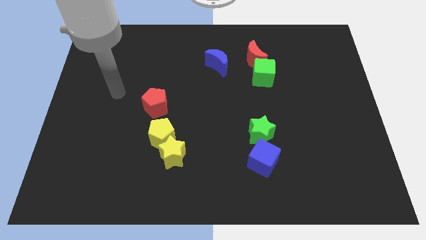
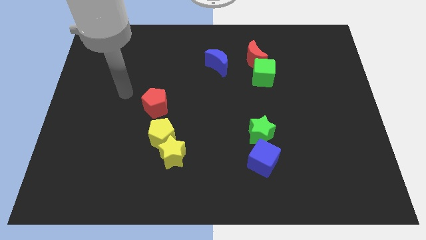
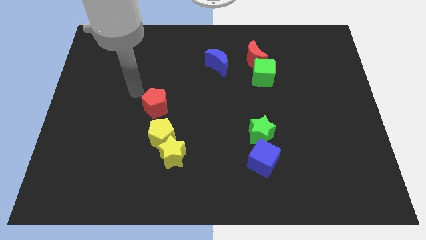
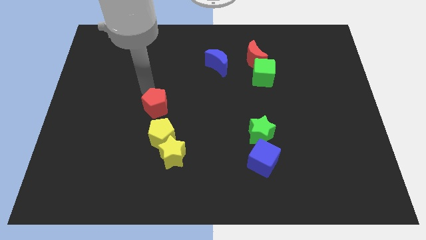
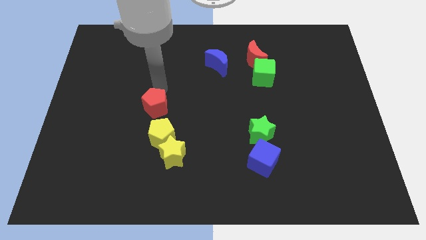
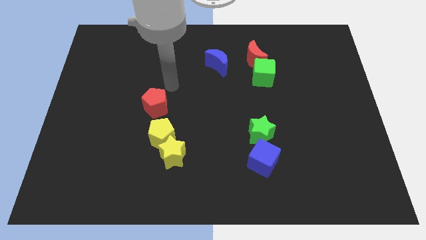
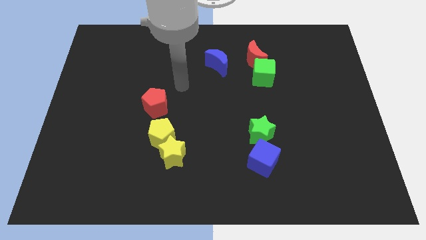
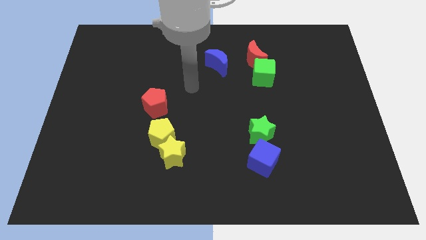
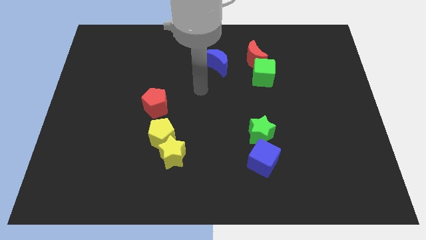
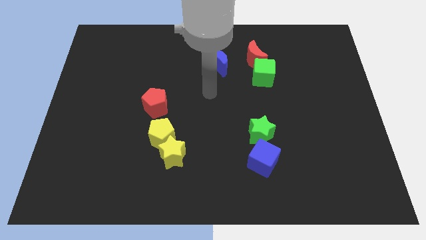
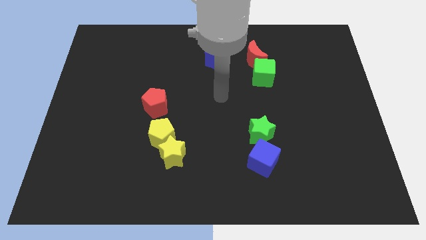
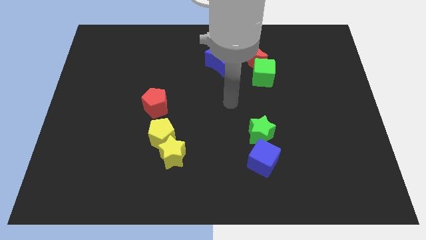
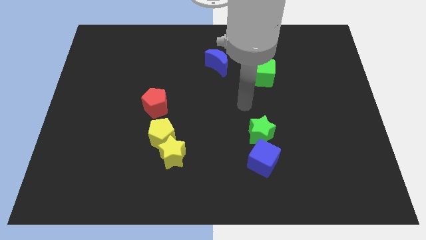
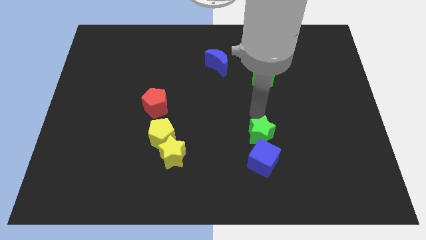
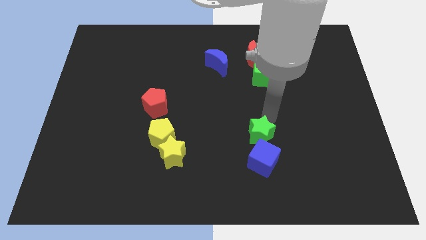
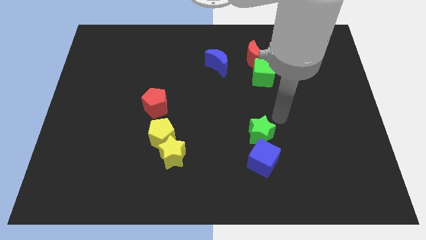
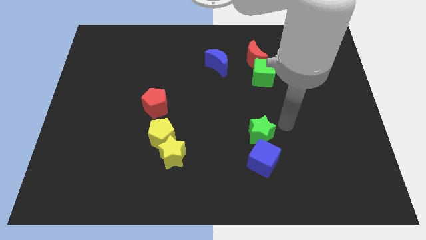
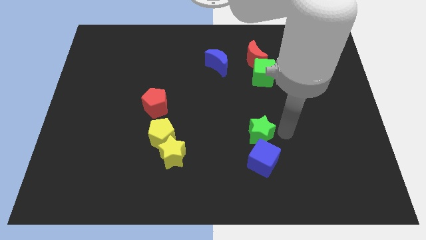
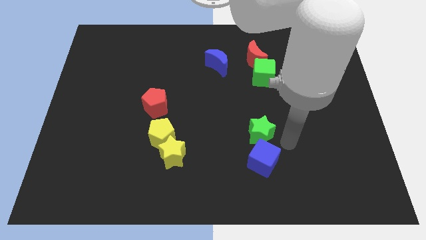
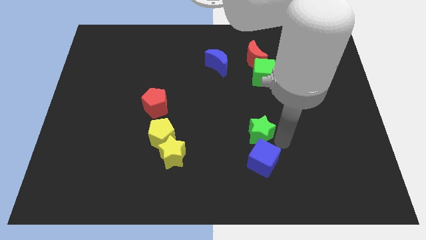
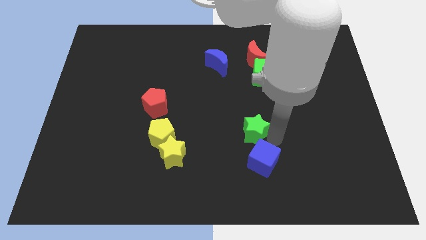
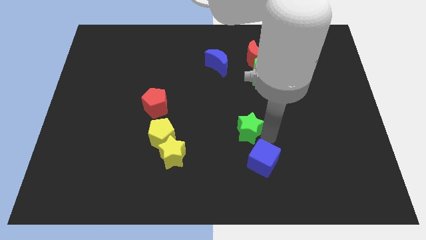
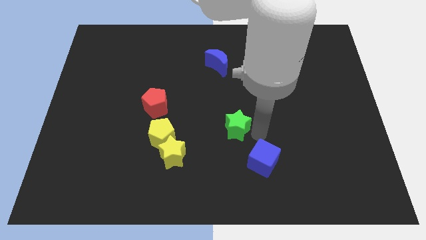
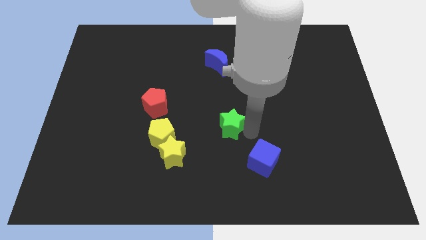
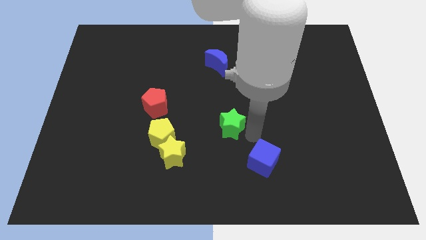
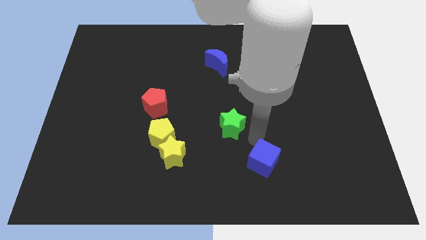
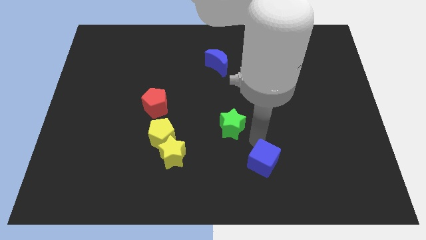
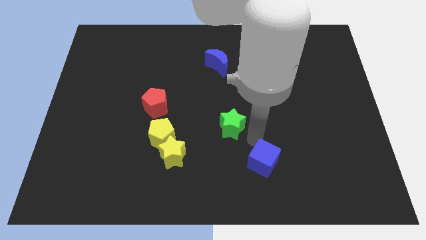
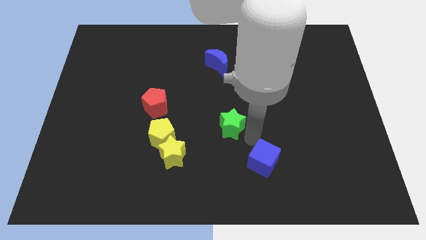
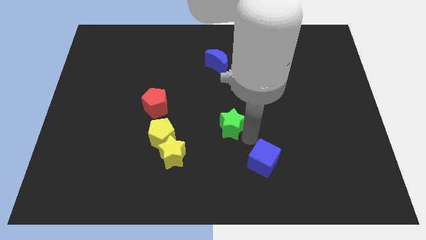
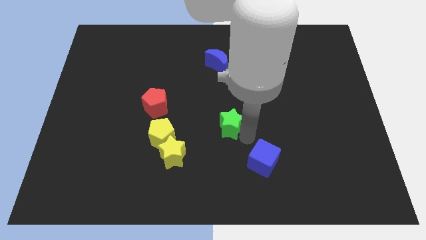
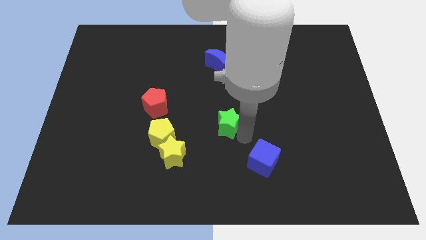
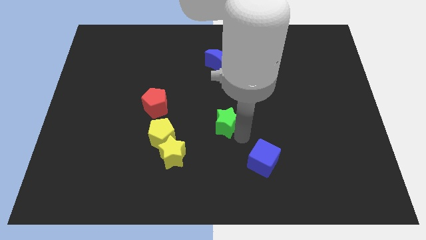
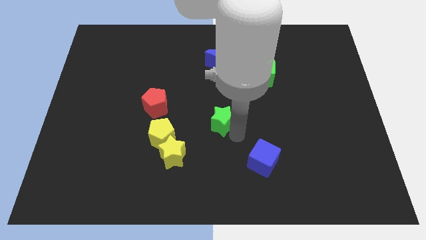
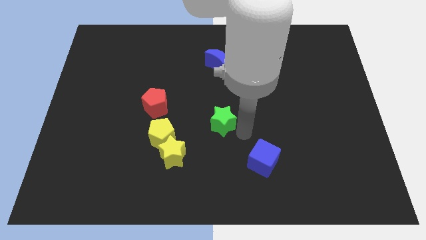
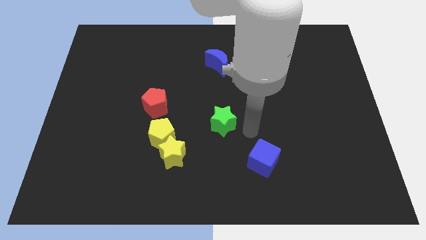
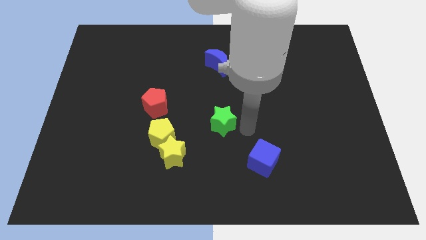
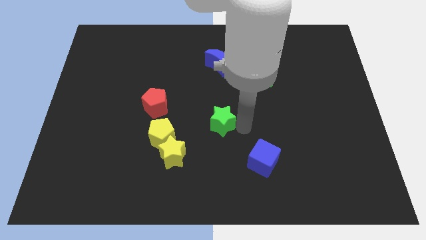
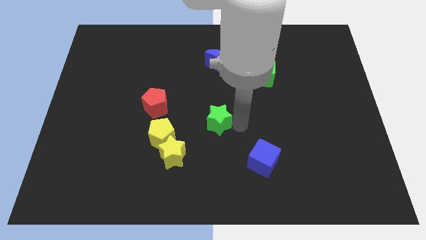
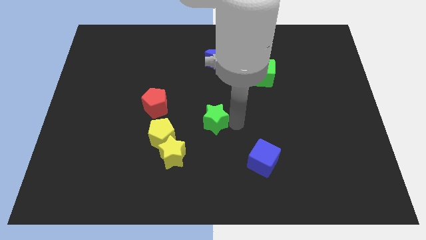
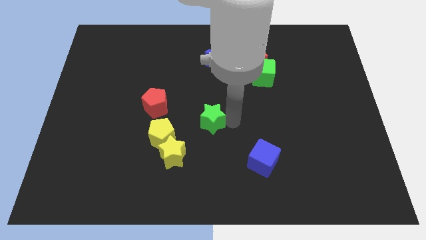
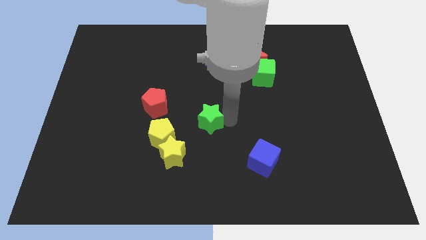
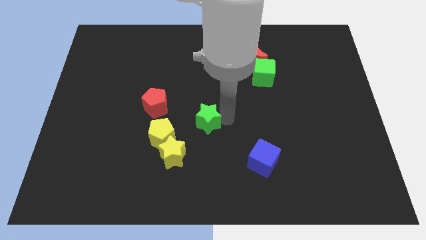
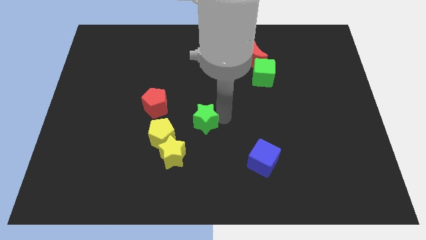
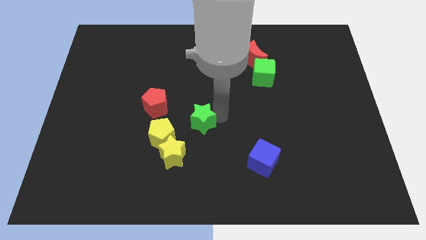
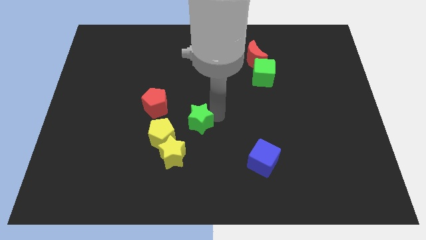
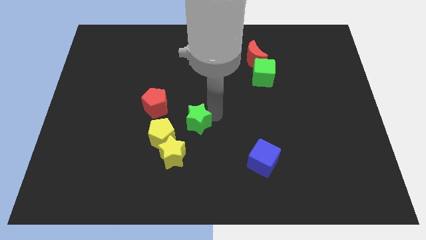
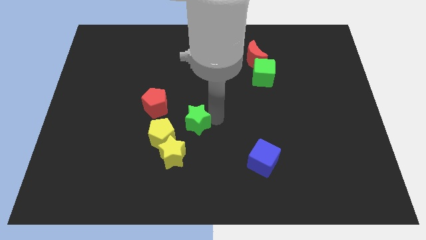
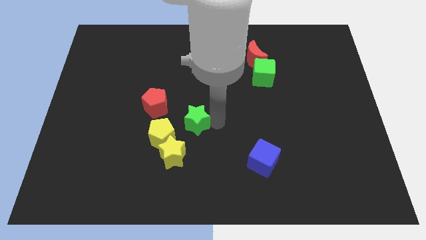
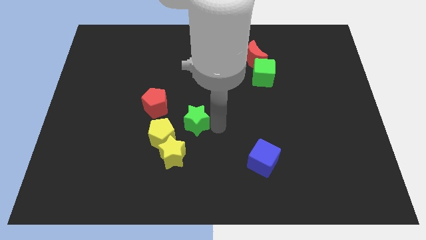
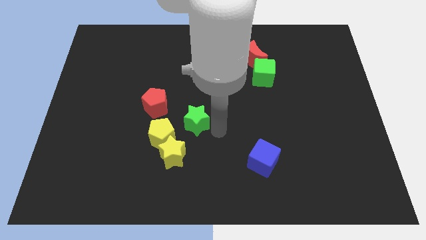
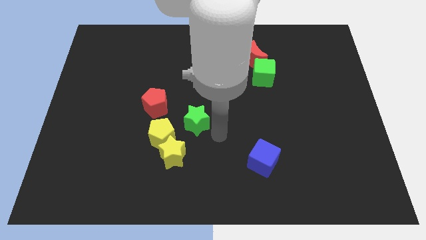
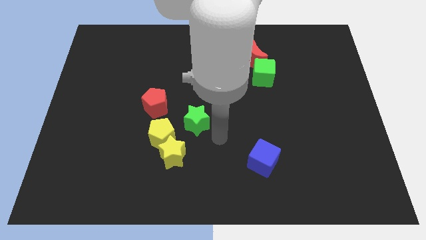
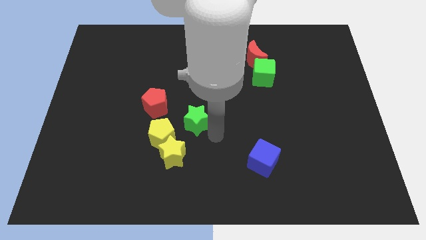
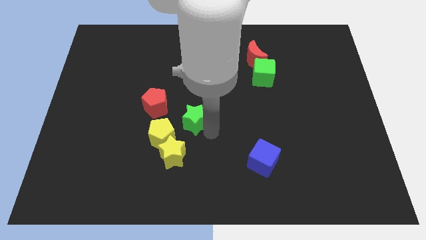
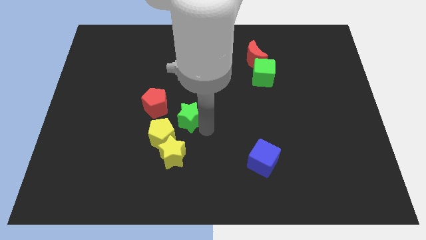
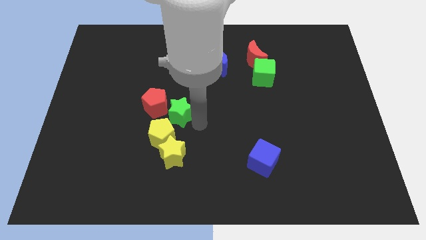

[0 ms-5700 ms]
move the green star to the red pentagon

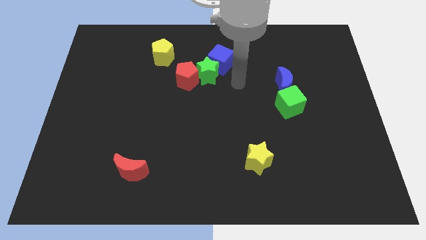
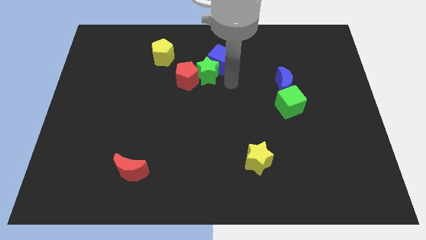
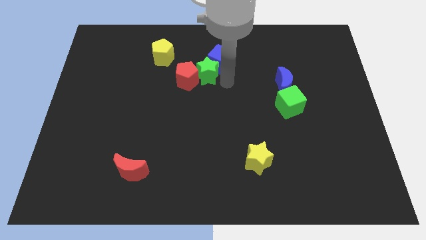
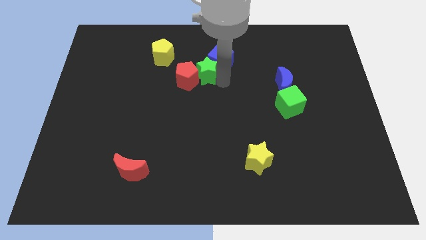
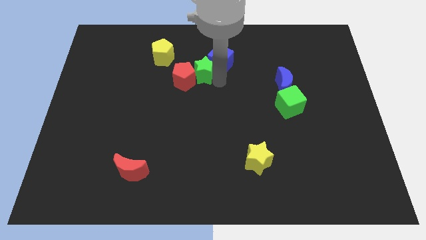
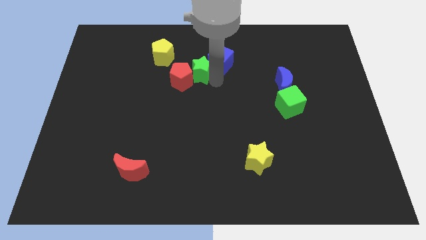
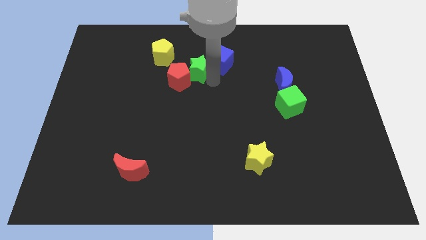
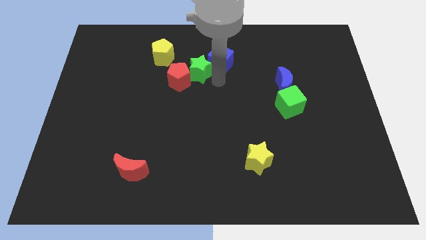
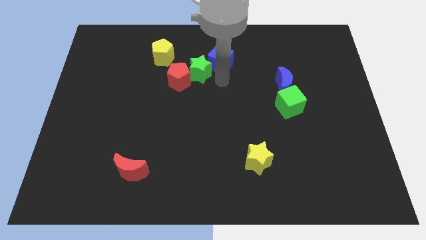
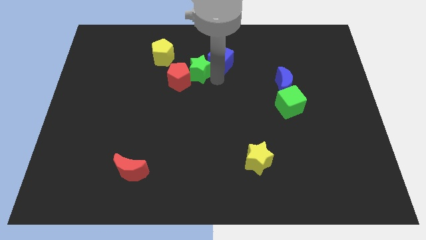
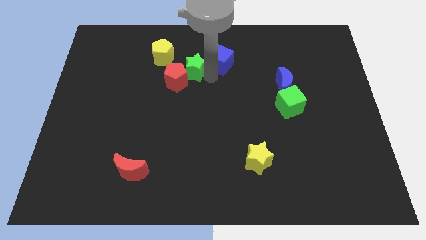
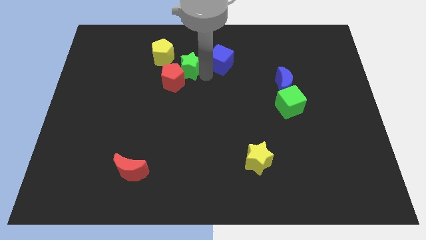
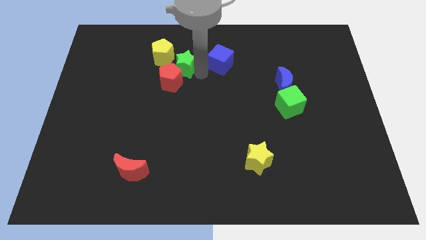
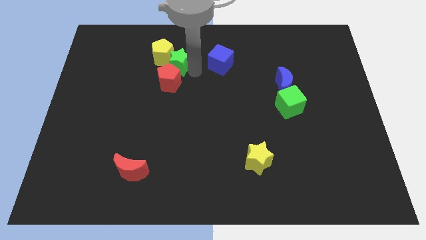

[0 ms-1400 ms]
slide the green star next to the yellow pentagon
